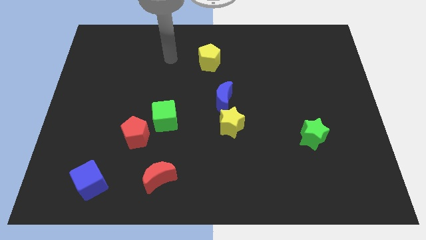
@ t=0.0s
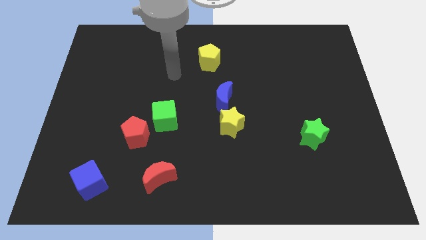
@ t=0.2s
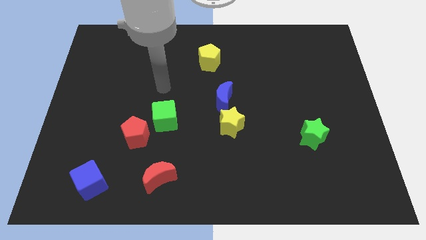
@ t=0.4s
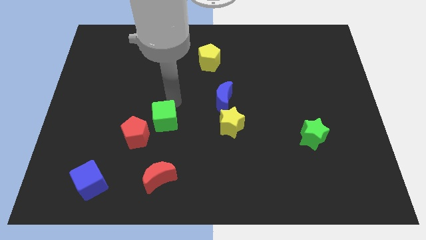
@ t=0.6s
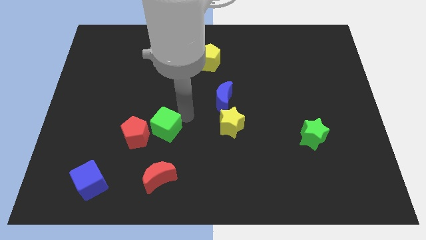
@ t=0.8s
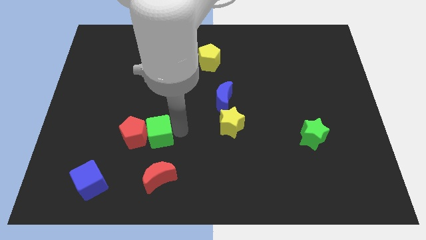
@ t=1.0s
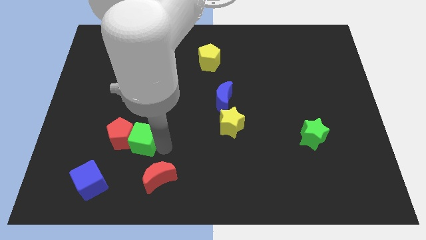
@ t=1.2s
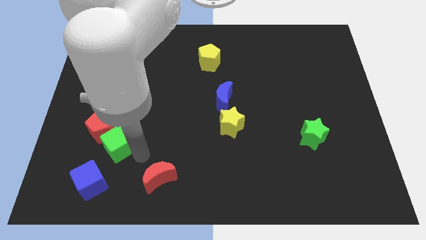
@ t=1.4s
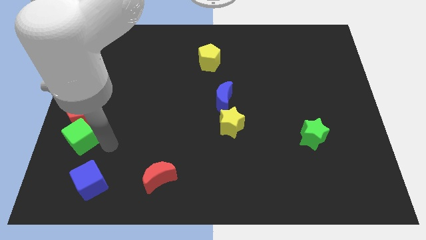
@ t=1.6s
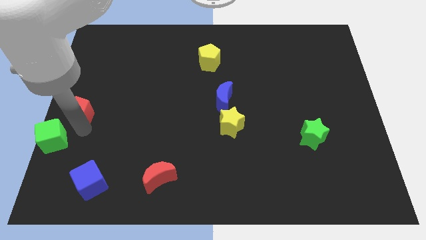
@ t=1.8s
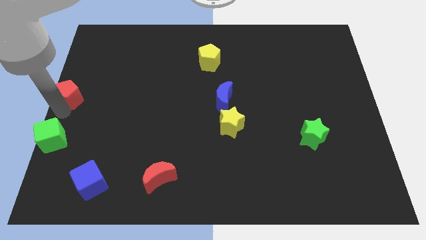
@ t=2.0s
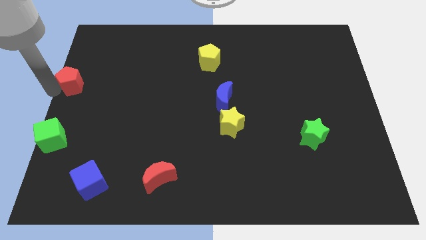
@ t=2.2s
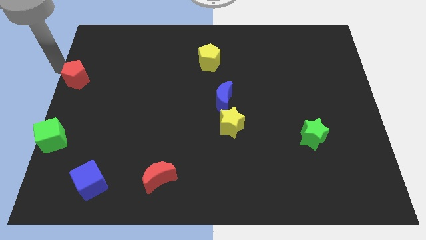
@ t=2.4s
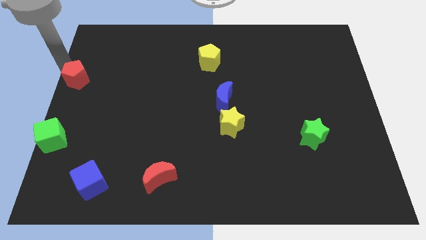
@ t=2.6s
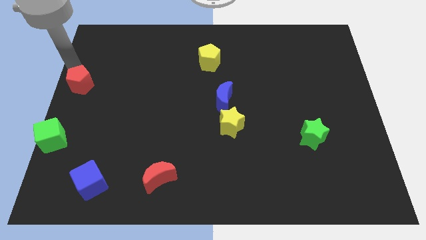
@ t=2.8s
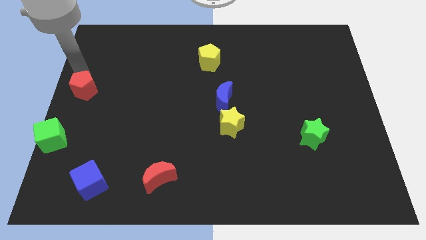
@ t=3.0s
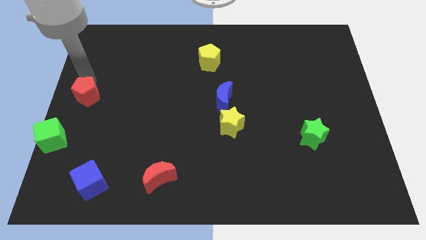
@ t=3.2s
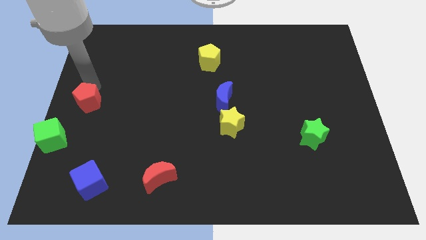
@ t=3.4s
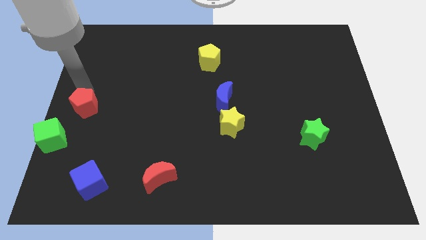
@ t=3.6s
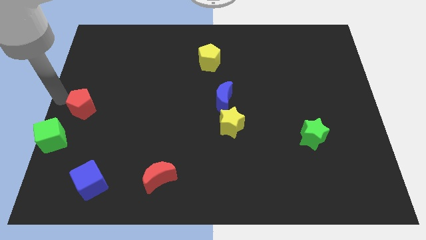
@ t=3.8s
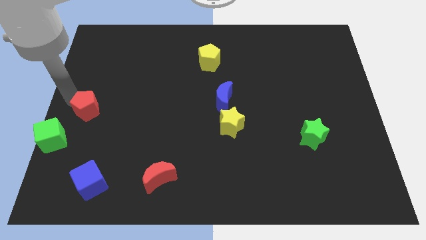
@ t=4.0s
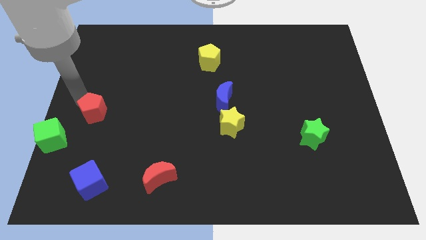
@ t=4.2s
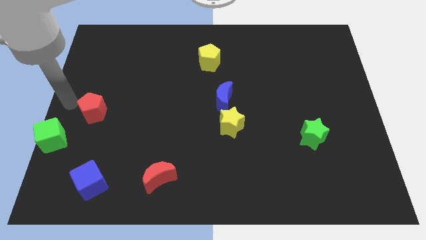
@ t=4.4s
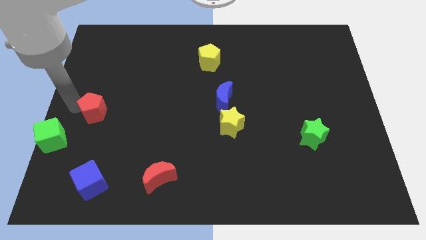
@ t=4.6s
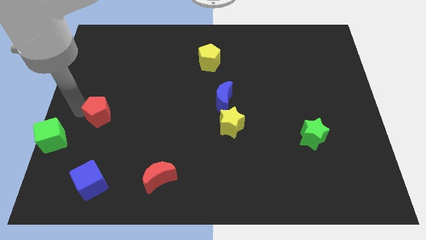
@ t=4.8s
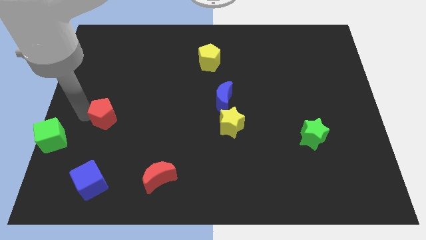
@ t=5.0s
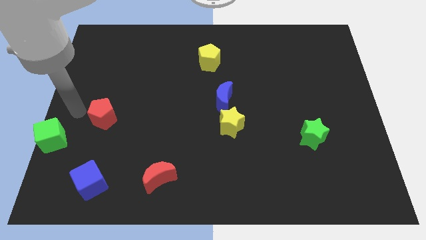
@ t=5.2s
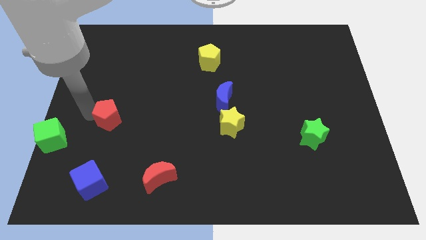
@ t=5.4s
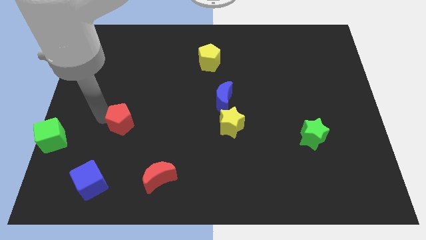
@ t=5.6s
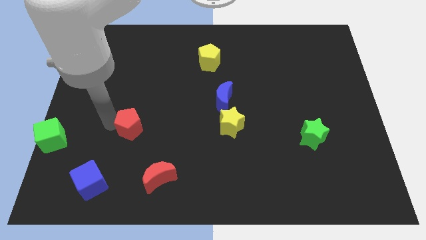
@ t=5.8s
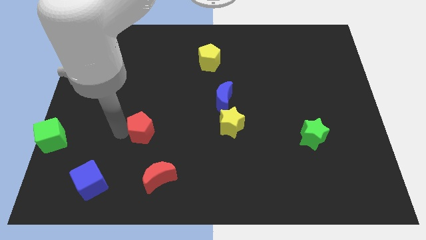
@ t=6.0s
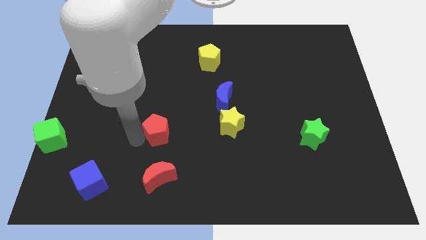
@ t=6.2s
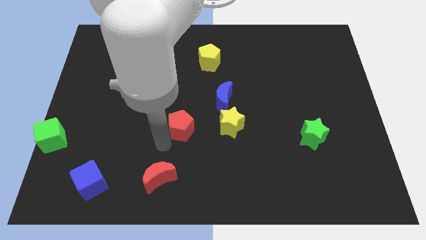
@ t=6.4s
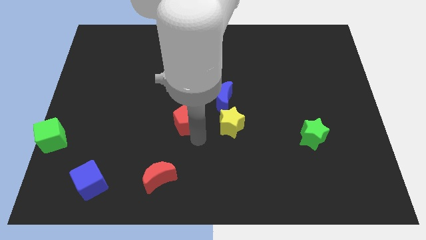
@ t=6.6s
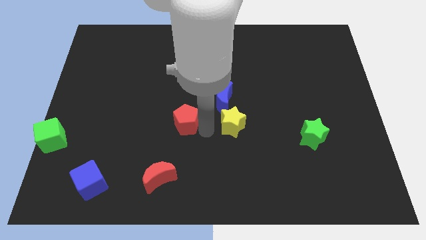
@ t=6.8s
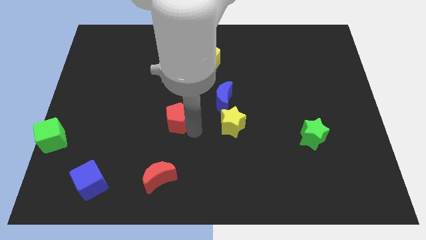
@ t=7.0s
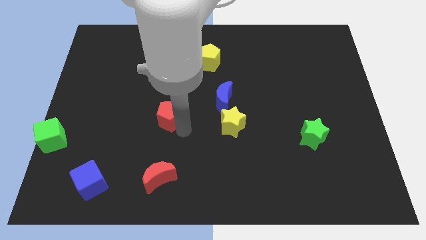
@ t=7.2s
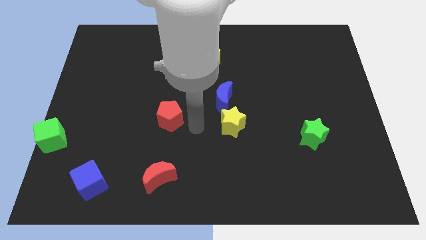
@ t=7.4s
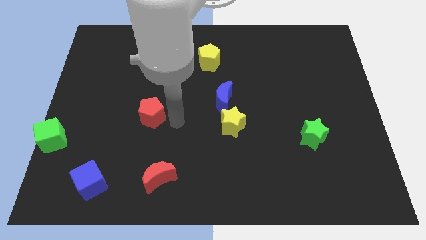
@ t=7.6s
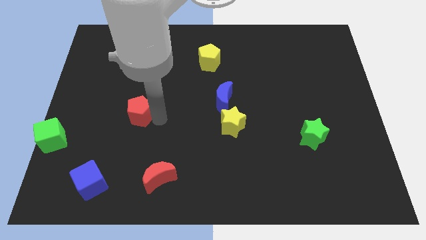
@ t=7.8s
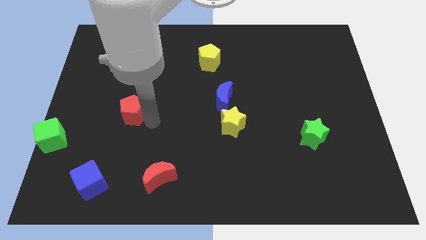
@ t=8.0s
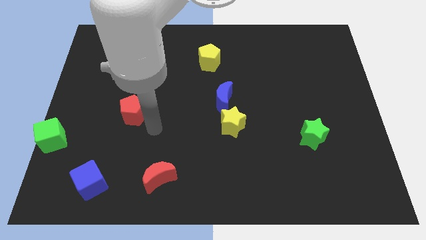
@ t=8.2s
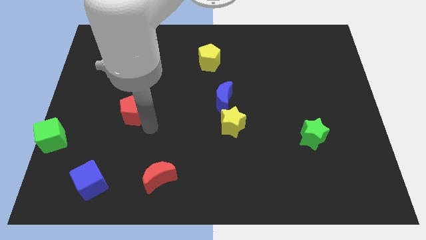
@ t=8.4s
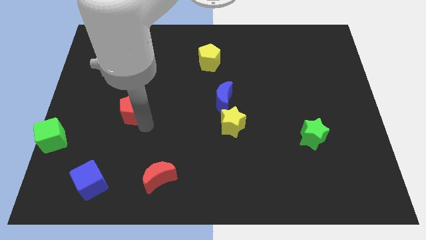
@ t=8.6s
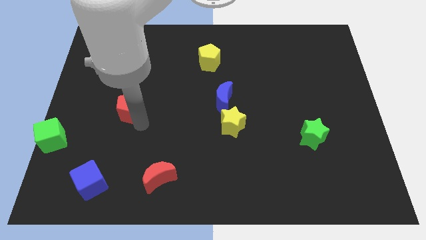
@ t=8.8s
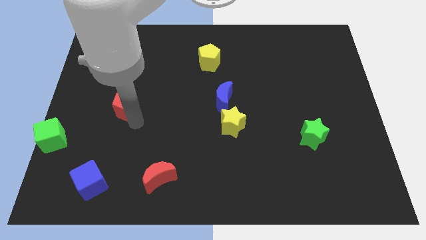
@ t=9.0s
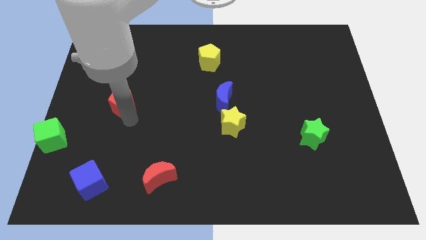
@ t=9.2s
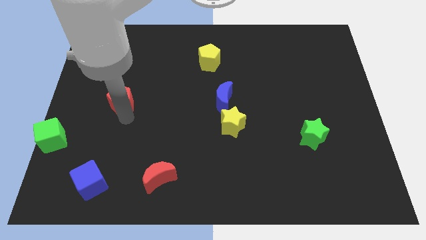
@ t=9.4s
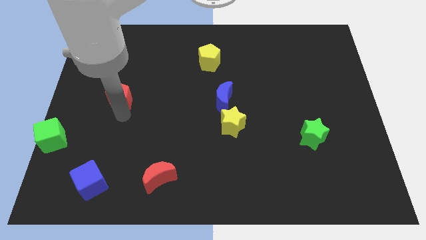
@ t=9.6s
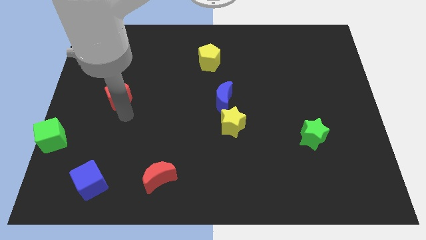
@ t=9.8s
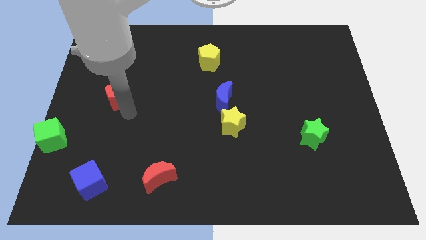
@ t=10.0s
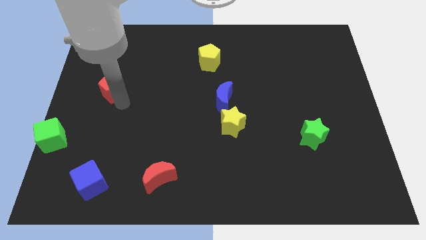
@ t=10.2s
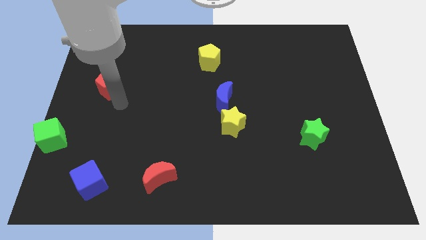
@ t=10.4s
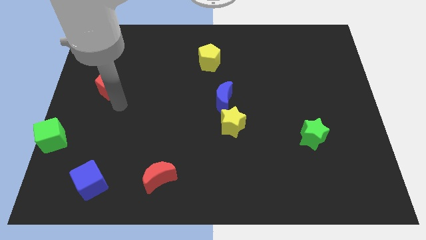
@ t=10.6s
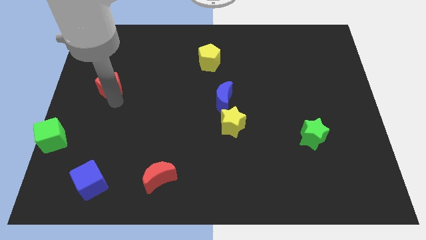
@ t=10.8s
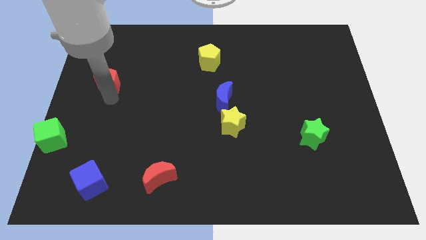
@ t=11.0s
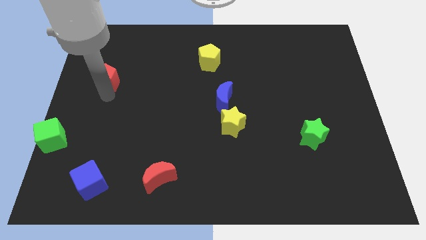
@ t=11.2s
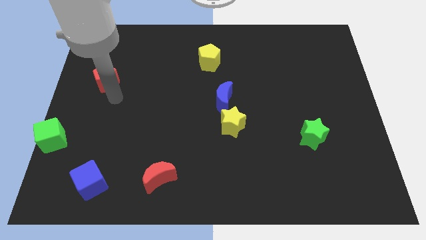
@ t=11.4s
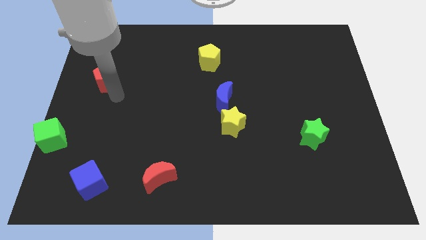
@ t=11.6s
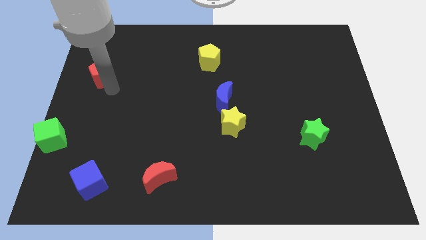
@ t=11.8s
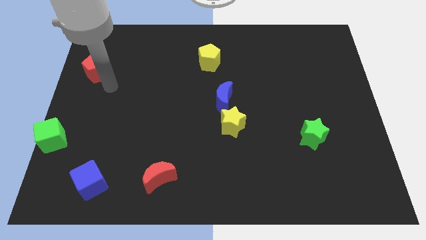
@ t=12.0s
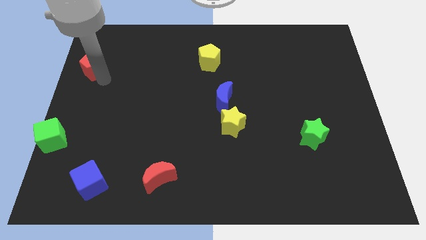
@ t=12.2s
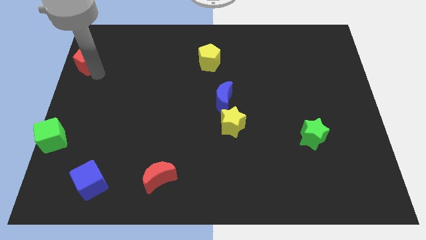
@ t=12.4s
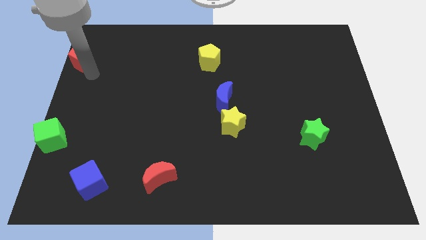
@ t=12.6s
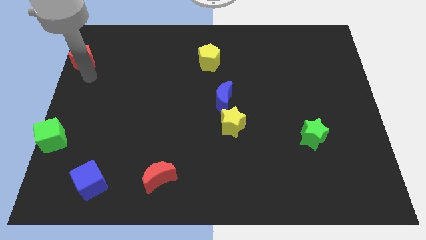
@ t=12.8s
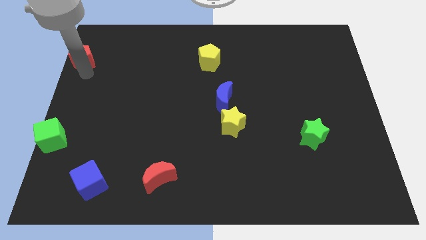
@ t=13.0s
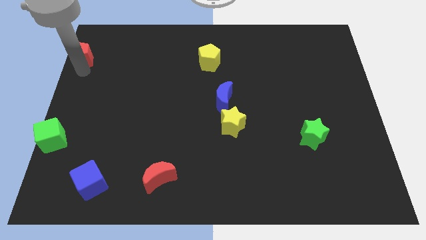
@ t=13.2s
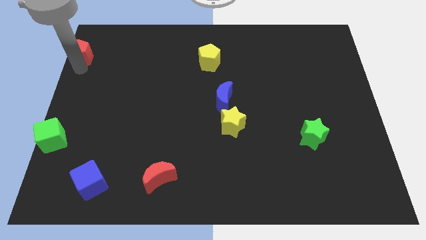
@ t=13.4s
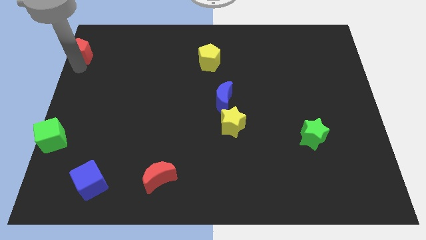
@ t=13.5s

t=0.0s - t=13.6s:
push the red pentagon to the top left
